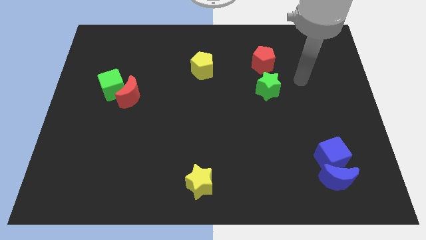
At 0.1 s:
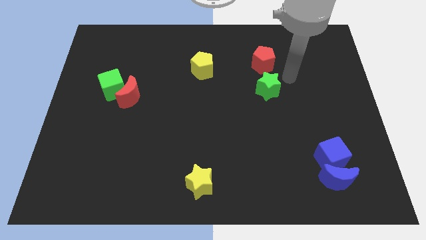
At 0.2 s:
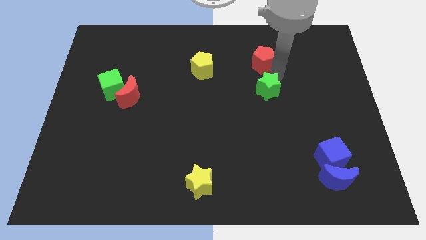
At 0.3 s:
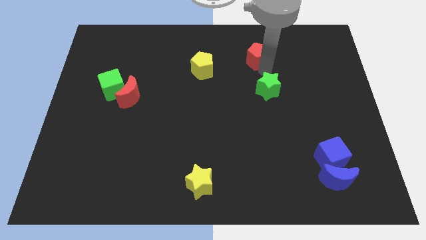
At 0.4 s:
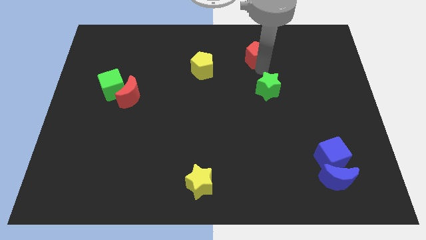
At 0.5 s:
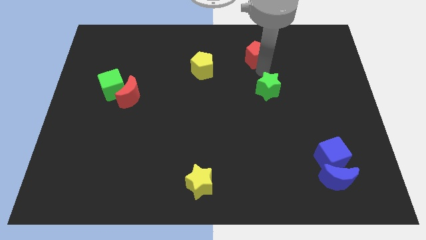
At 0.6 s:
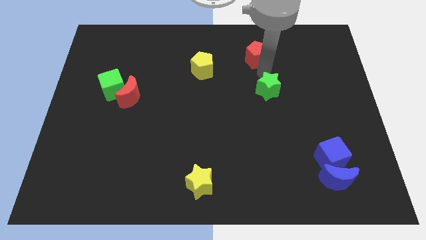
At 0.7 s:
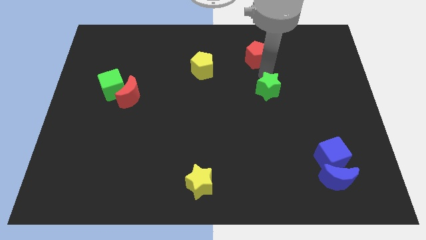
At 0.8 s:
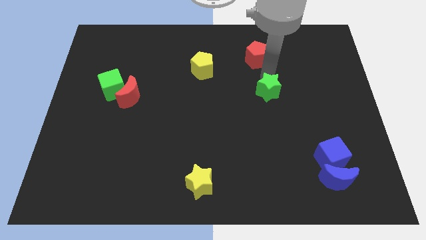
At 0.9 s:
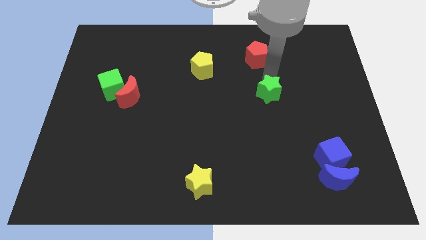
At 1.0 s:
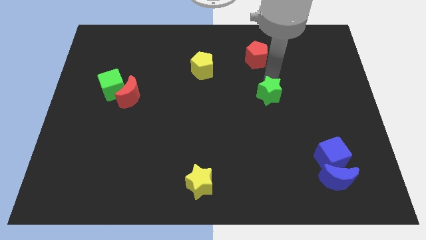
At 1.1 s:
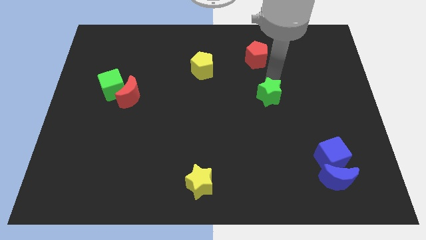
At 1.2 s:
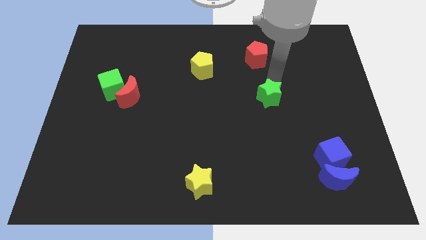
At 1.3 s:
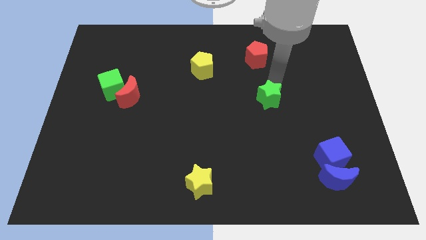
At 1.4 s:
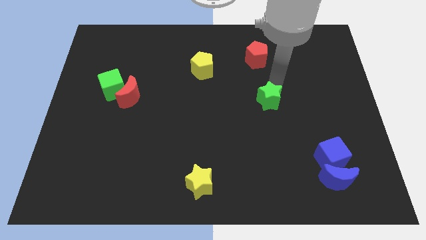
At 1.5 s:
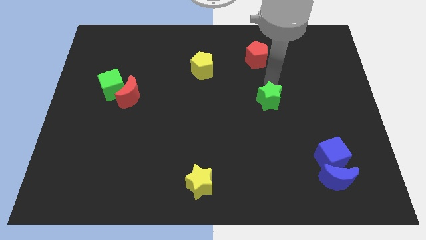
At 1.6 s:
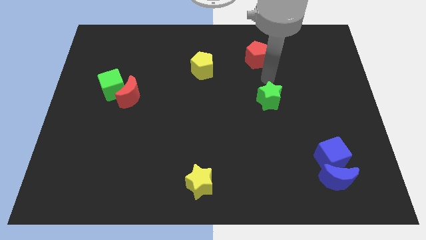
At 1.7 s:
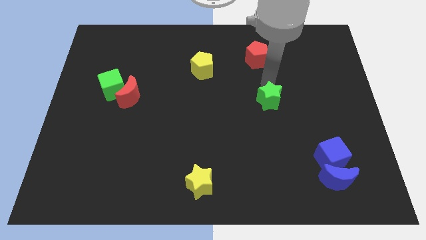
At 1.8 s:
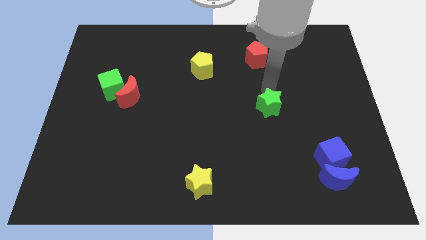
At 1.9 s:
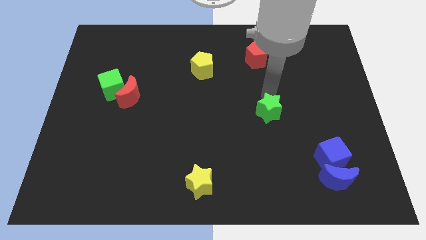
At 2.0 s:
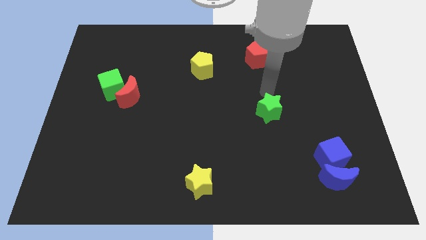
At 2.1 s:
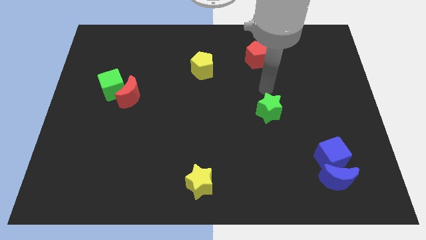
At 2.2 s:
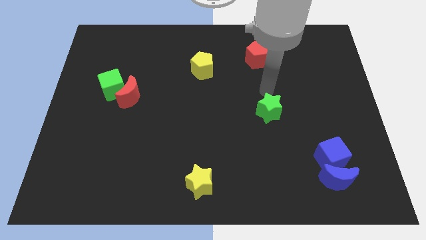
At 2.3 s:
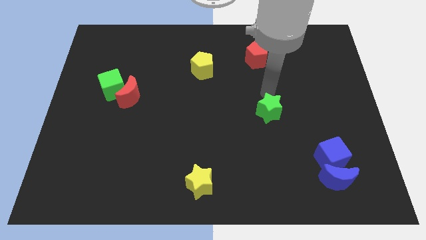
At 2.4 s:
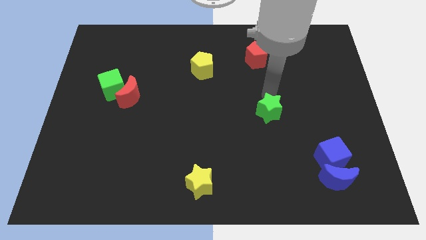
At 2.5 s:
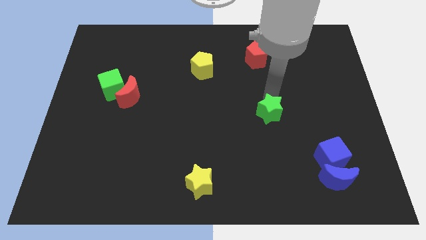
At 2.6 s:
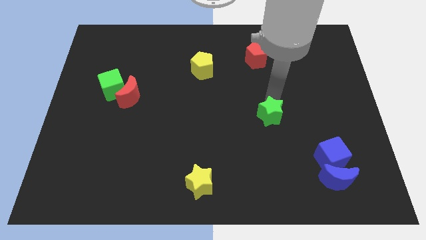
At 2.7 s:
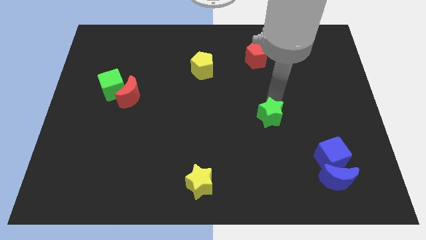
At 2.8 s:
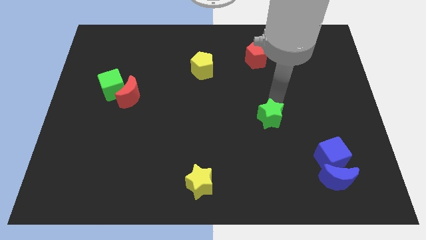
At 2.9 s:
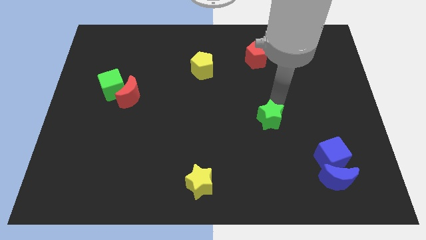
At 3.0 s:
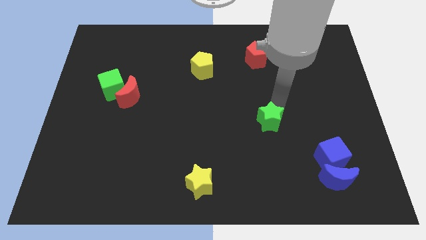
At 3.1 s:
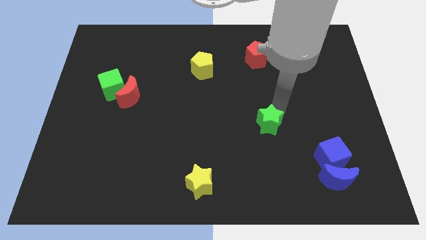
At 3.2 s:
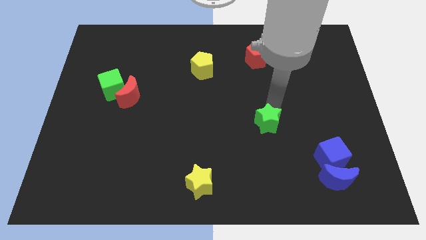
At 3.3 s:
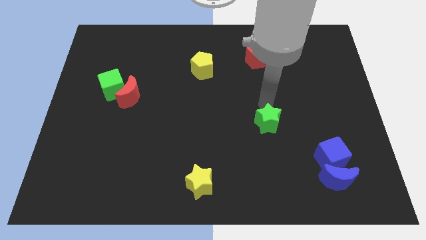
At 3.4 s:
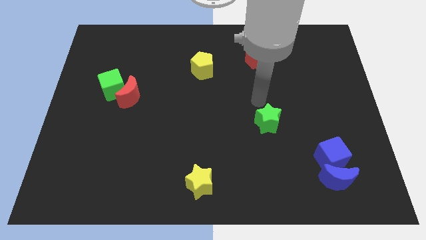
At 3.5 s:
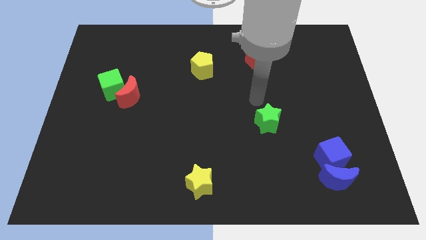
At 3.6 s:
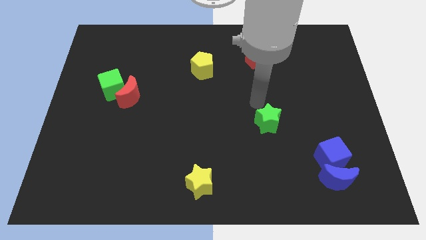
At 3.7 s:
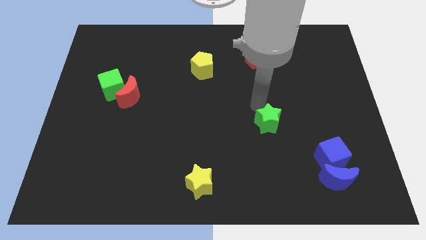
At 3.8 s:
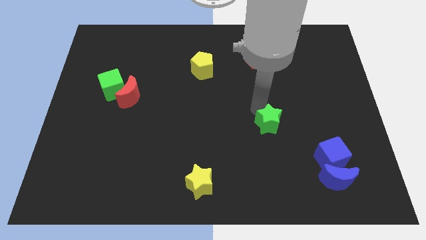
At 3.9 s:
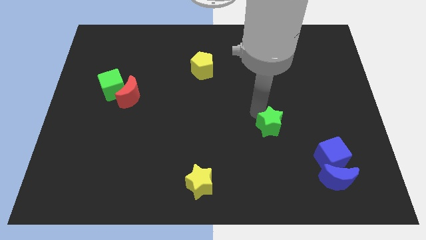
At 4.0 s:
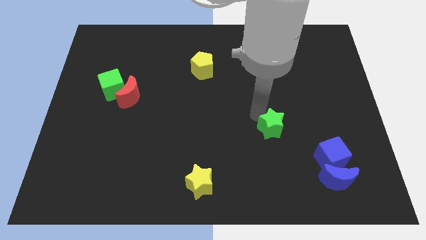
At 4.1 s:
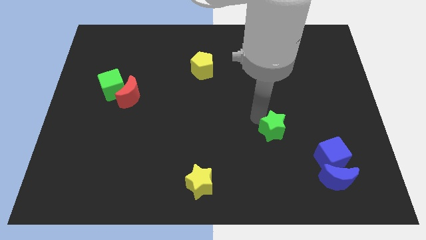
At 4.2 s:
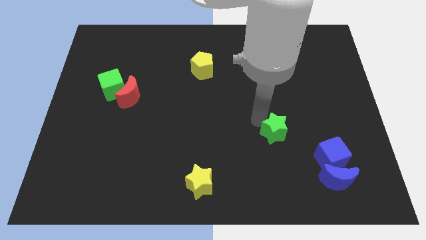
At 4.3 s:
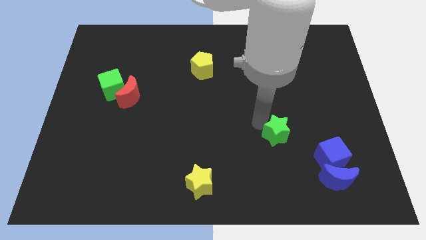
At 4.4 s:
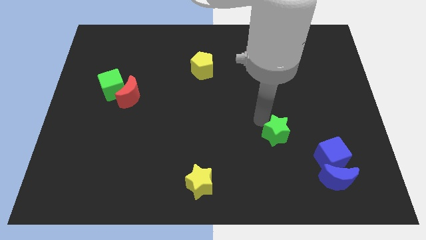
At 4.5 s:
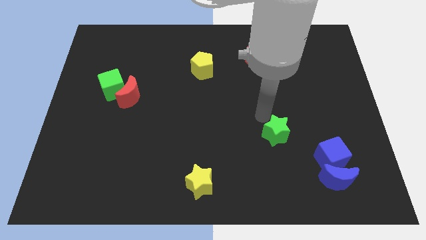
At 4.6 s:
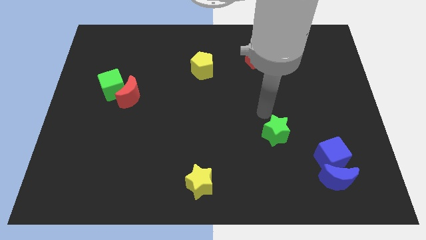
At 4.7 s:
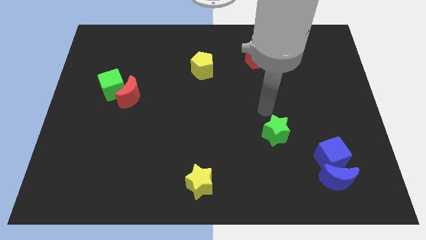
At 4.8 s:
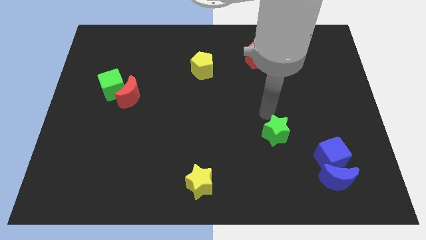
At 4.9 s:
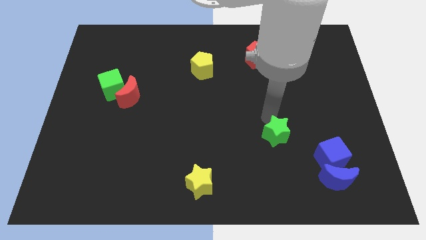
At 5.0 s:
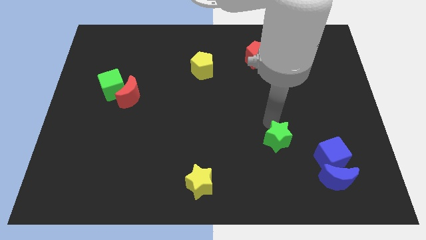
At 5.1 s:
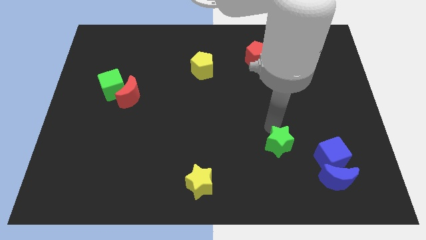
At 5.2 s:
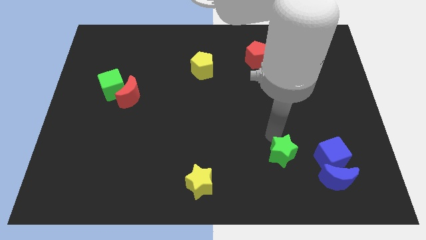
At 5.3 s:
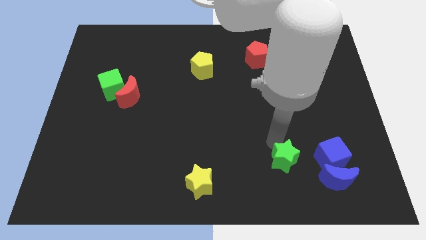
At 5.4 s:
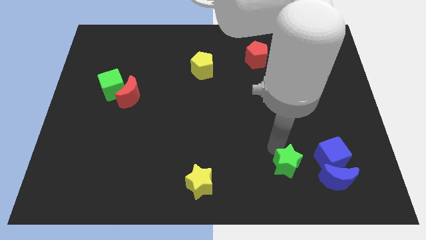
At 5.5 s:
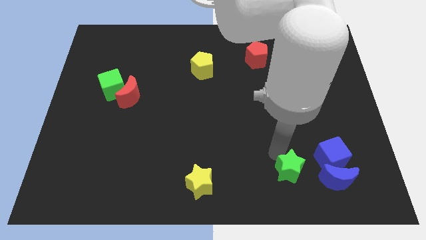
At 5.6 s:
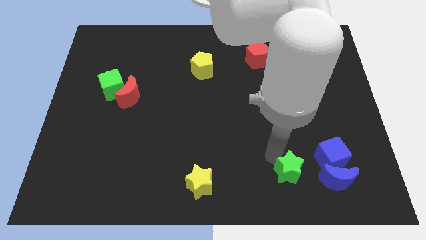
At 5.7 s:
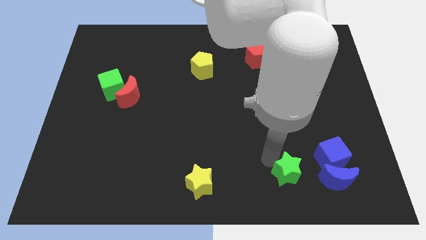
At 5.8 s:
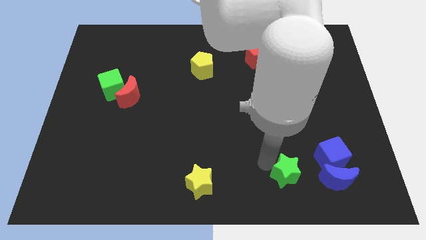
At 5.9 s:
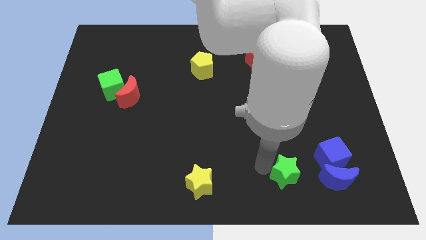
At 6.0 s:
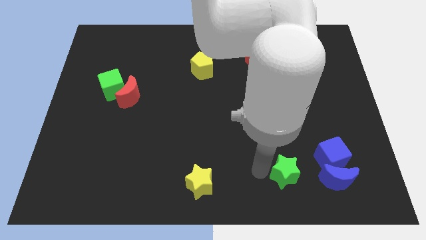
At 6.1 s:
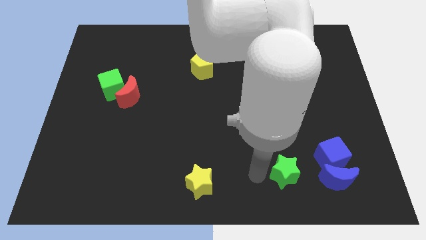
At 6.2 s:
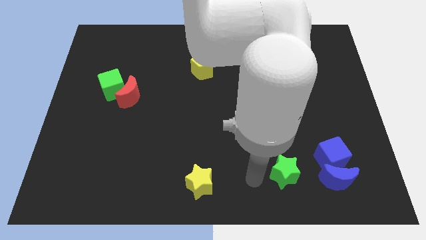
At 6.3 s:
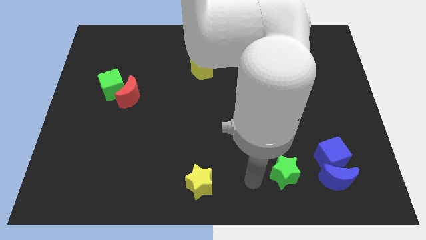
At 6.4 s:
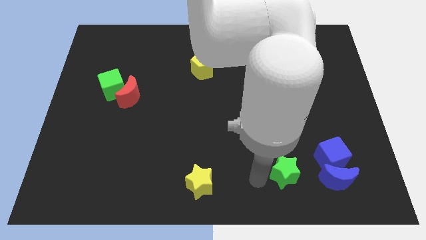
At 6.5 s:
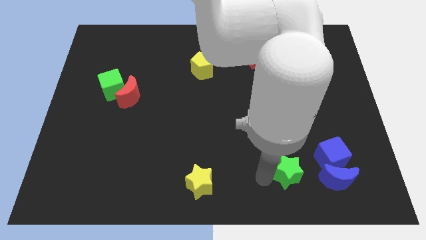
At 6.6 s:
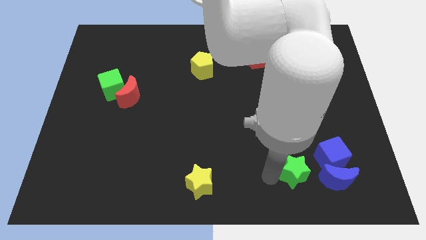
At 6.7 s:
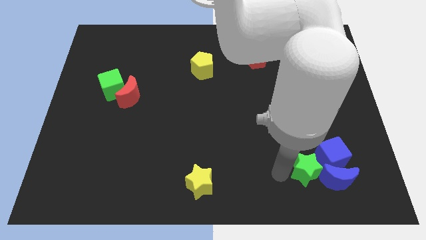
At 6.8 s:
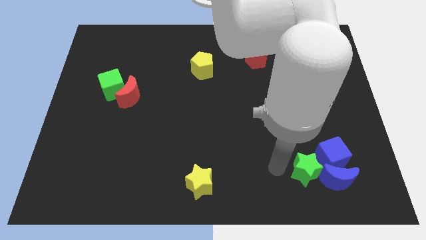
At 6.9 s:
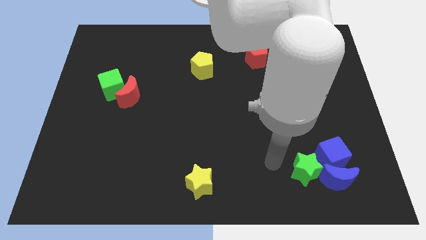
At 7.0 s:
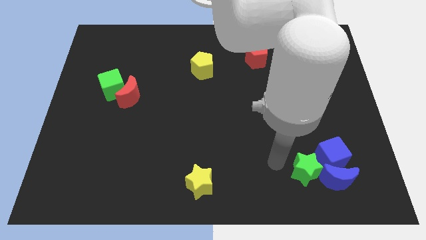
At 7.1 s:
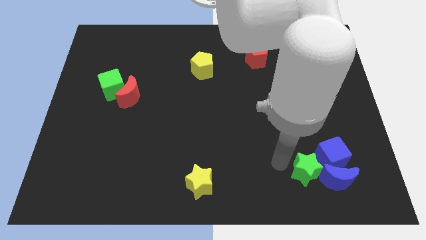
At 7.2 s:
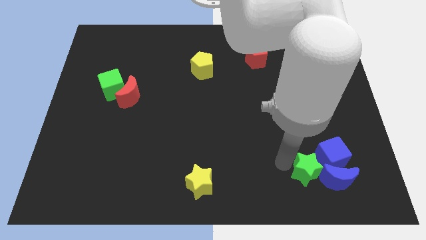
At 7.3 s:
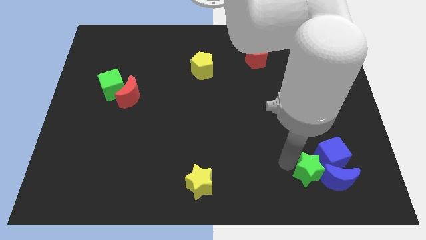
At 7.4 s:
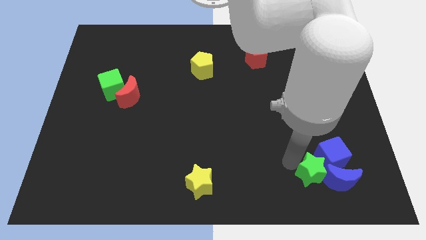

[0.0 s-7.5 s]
slide the green star close to the blue moon
